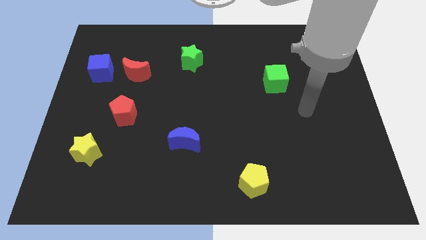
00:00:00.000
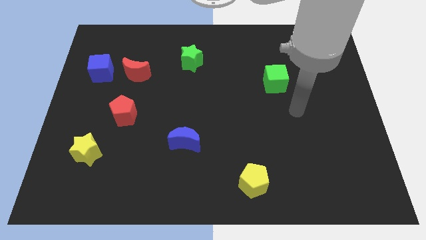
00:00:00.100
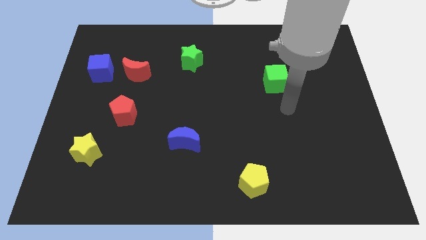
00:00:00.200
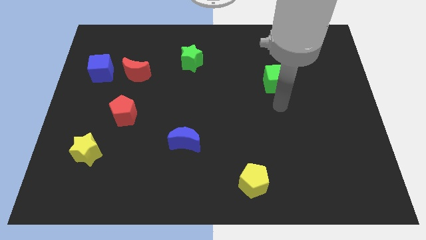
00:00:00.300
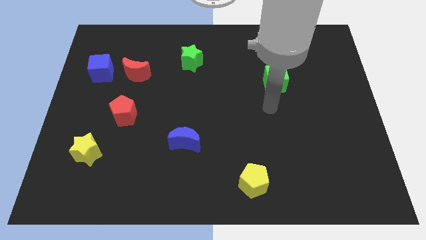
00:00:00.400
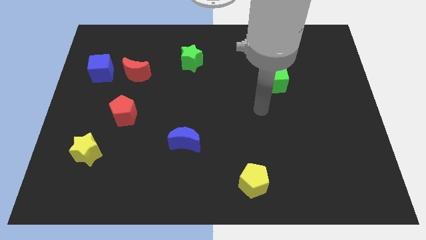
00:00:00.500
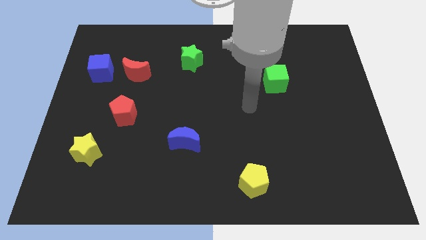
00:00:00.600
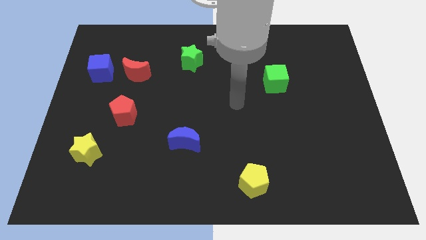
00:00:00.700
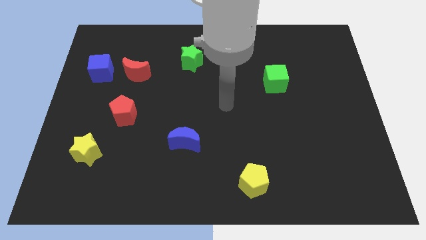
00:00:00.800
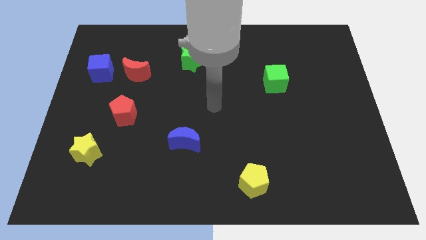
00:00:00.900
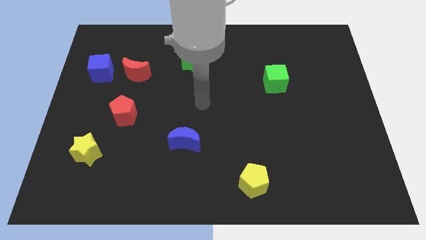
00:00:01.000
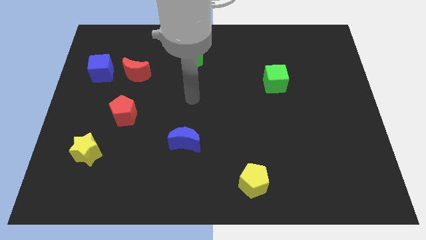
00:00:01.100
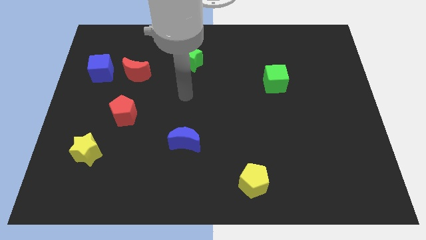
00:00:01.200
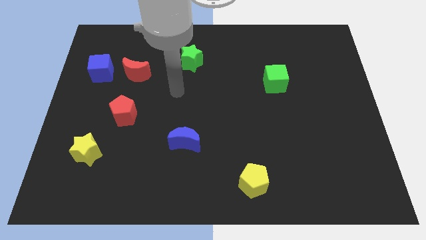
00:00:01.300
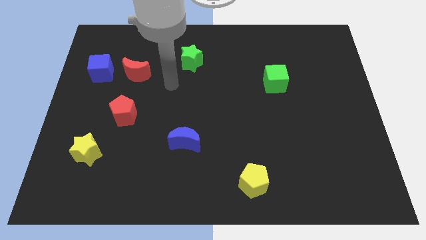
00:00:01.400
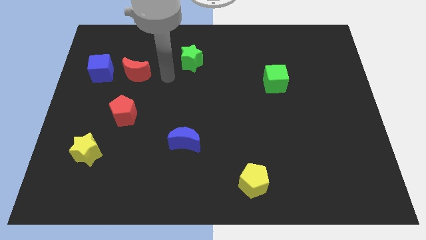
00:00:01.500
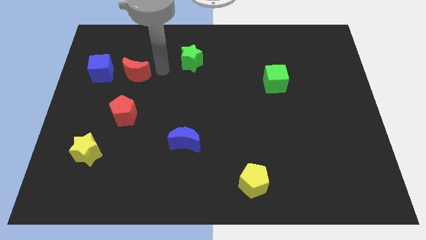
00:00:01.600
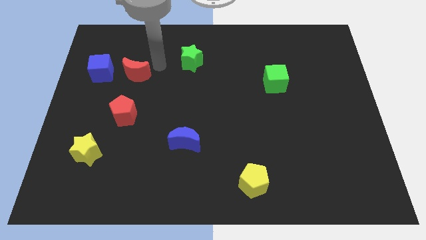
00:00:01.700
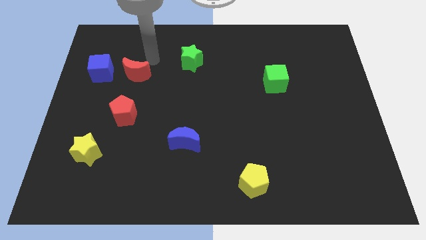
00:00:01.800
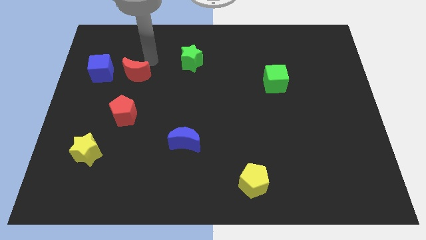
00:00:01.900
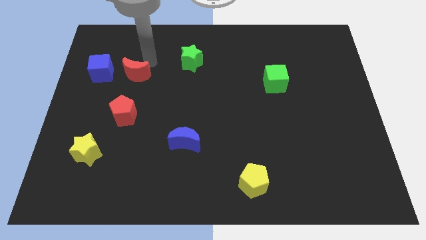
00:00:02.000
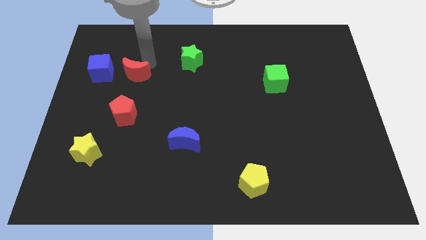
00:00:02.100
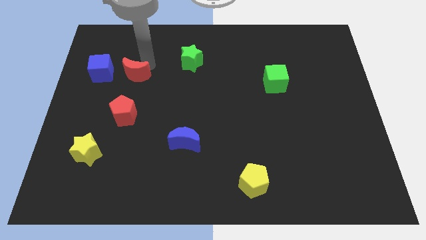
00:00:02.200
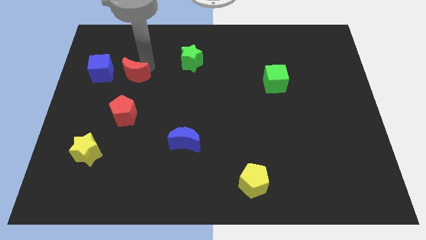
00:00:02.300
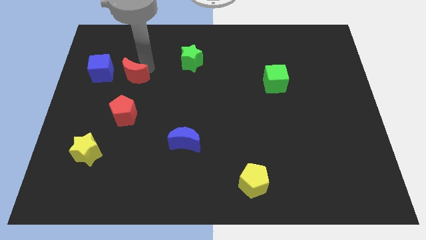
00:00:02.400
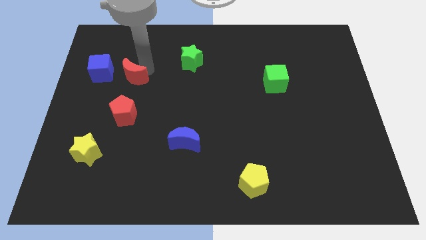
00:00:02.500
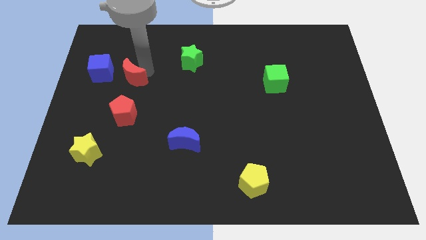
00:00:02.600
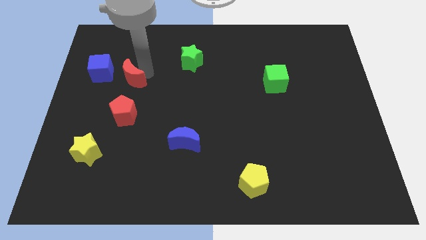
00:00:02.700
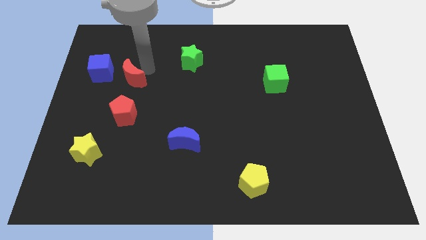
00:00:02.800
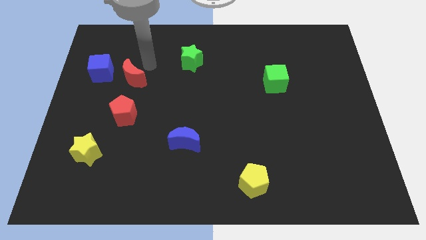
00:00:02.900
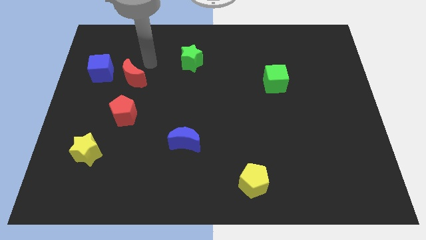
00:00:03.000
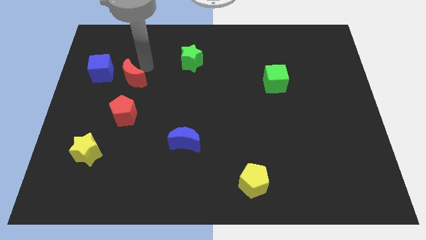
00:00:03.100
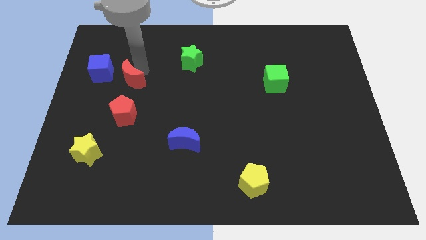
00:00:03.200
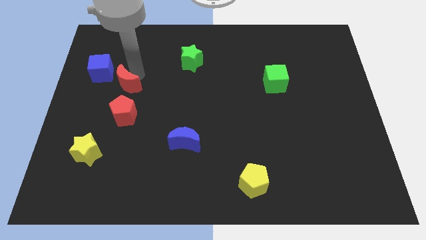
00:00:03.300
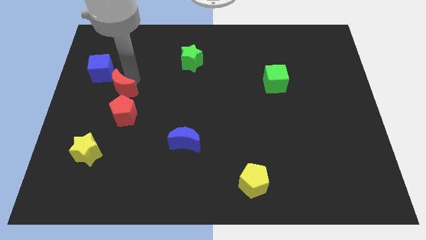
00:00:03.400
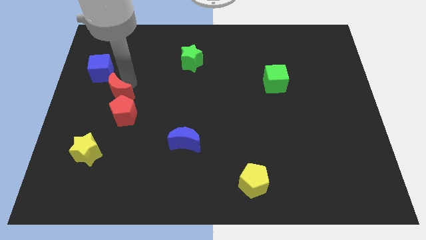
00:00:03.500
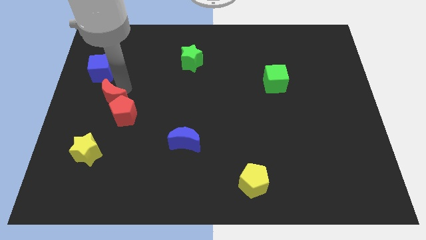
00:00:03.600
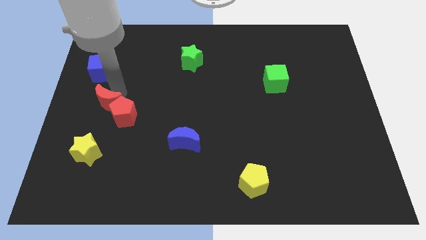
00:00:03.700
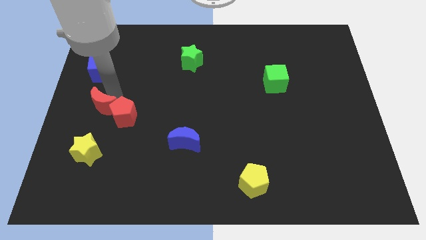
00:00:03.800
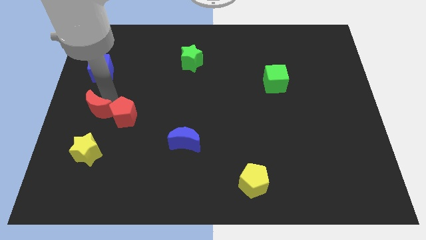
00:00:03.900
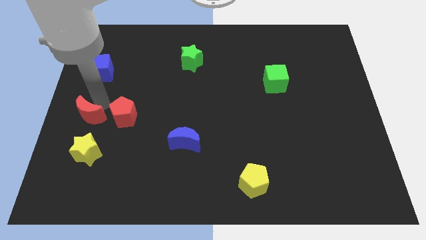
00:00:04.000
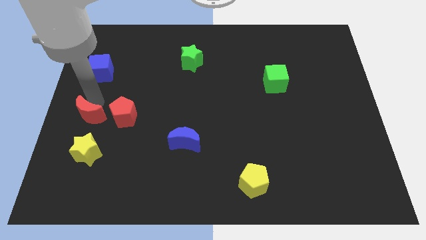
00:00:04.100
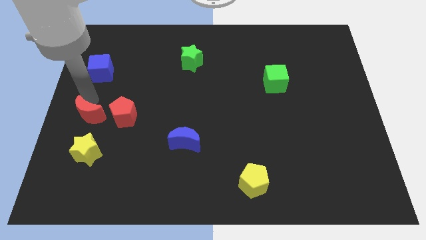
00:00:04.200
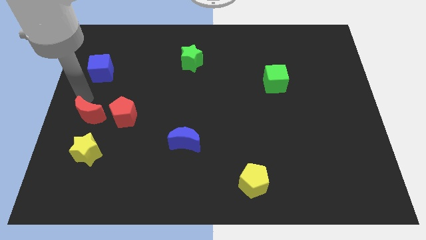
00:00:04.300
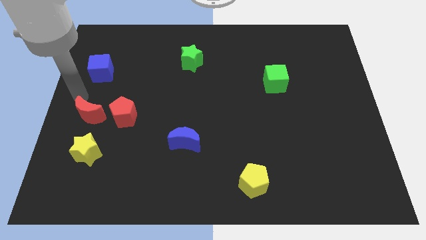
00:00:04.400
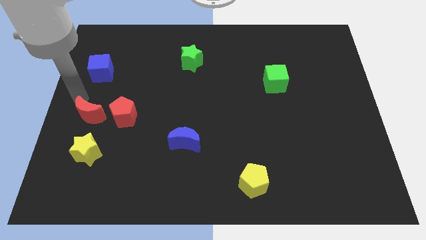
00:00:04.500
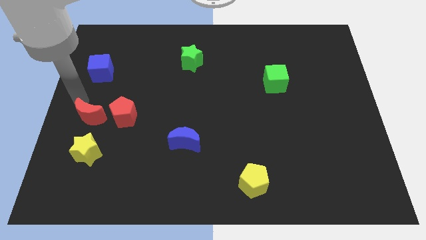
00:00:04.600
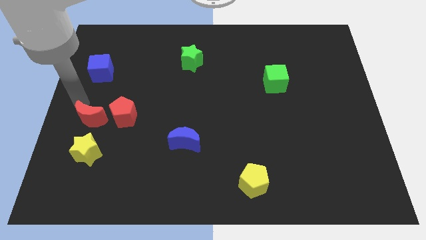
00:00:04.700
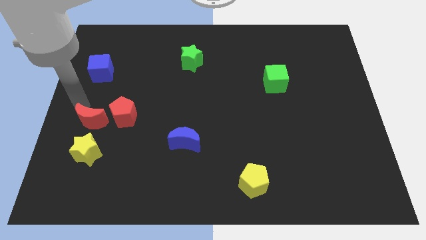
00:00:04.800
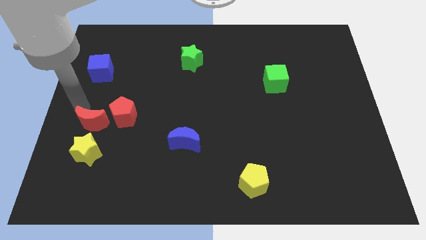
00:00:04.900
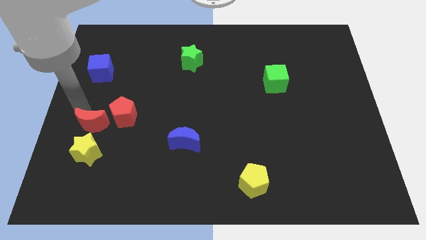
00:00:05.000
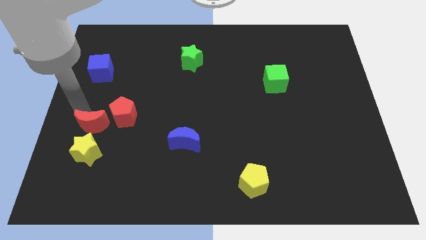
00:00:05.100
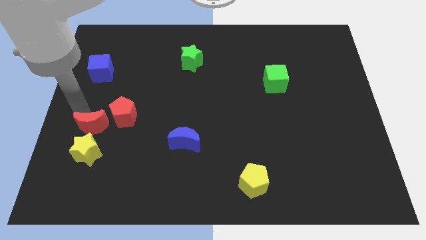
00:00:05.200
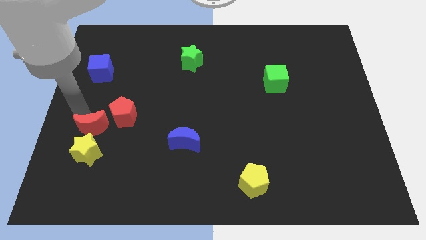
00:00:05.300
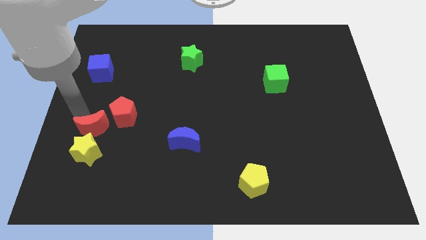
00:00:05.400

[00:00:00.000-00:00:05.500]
move the red moon to the yellow star

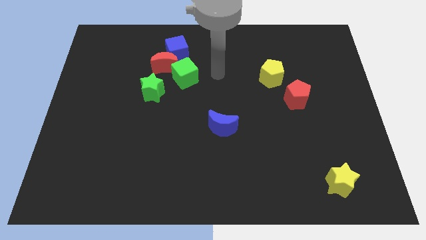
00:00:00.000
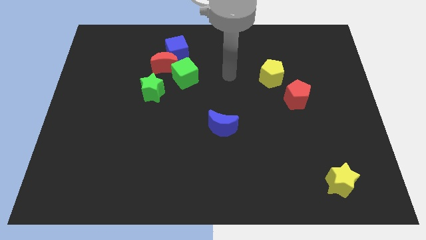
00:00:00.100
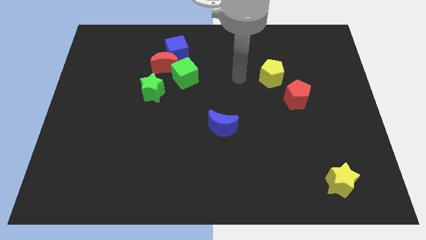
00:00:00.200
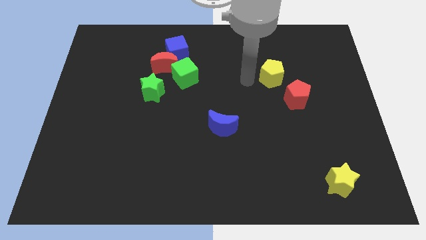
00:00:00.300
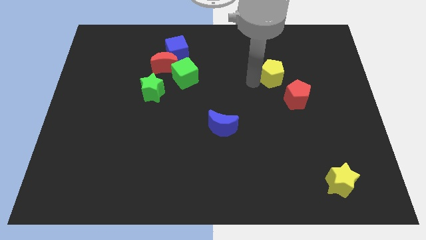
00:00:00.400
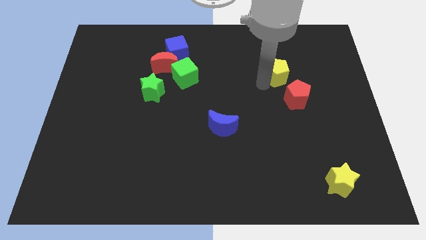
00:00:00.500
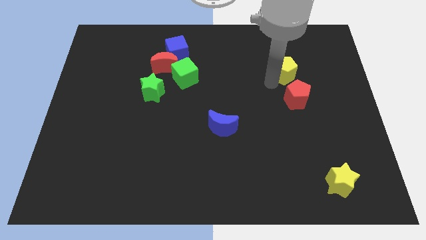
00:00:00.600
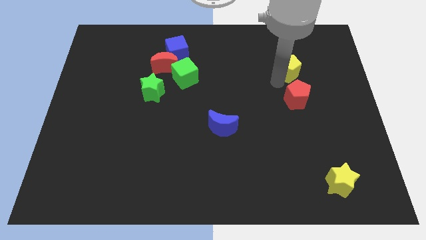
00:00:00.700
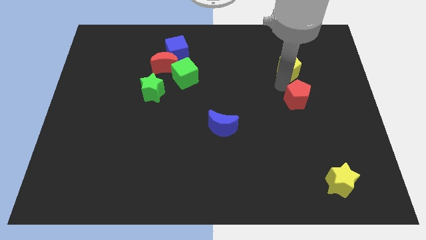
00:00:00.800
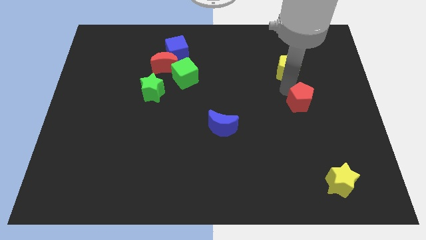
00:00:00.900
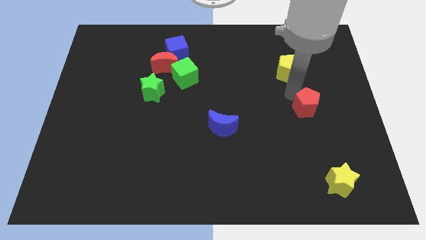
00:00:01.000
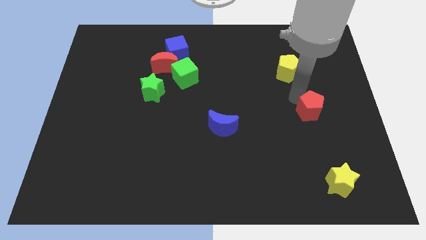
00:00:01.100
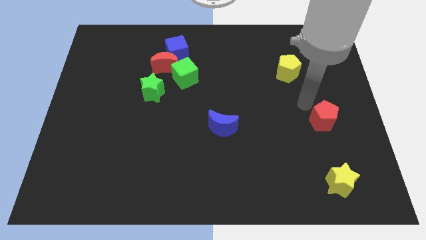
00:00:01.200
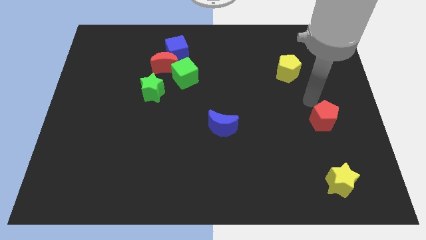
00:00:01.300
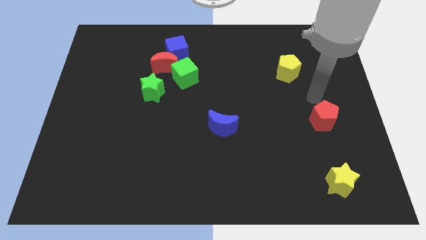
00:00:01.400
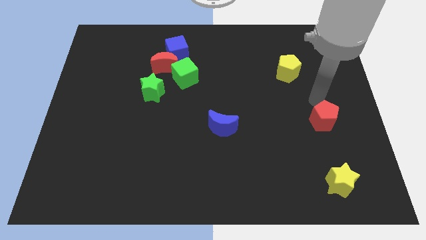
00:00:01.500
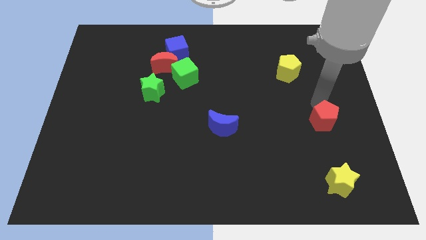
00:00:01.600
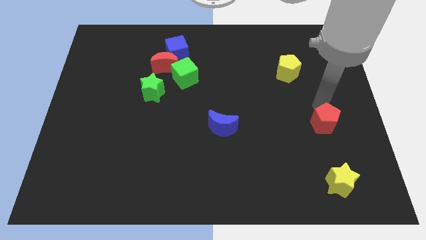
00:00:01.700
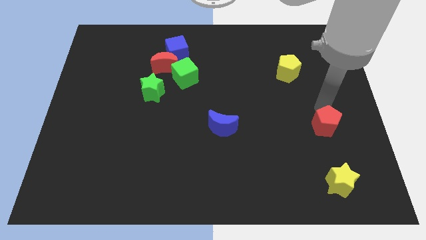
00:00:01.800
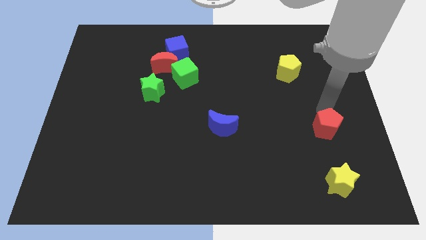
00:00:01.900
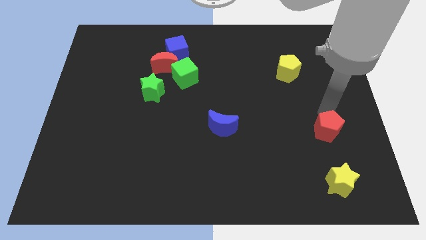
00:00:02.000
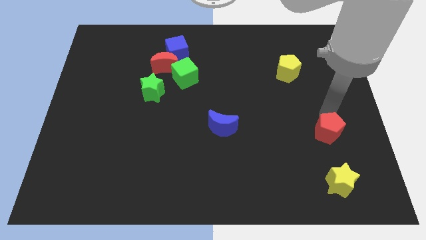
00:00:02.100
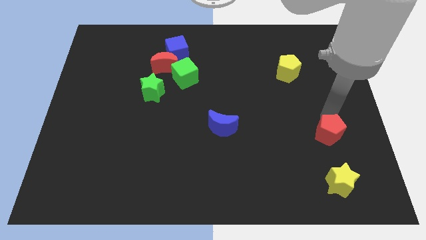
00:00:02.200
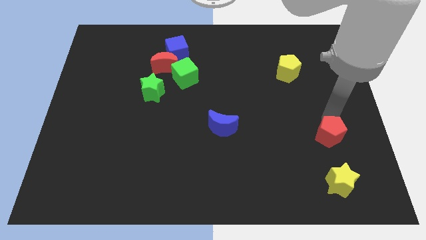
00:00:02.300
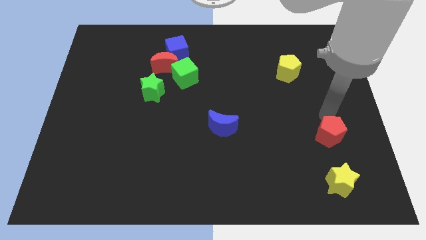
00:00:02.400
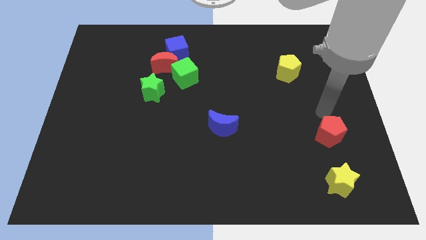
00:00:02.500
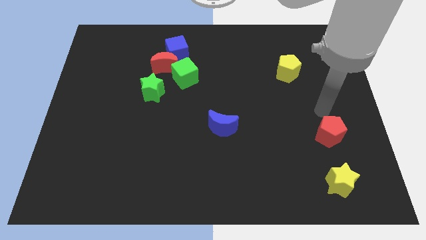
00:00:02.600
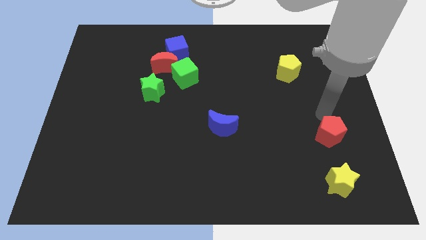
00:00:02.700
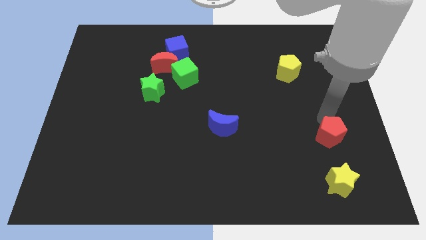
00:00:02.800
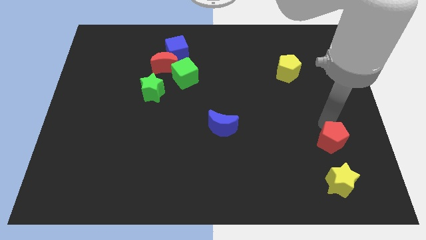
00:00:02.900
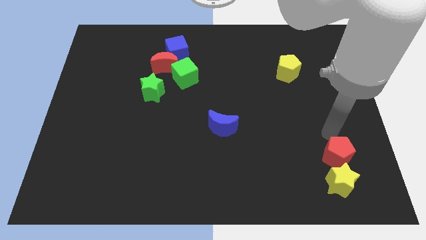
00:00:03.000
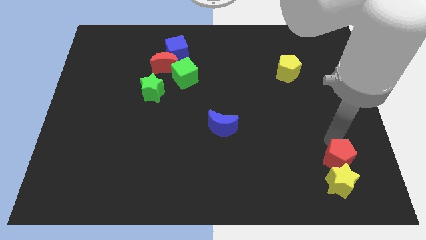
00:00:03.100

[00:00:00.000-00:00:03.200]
slide the red pentagon close to the yellow star
